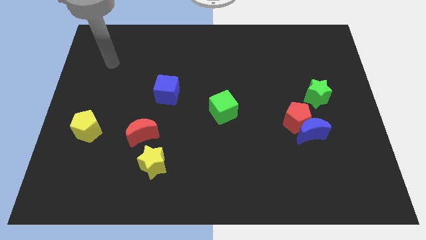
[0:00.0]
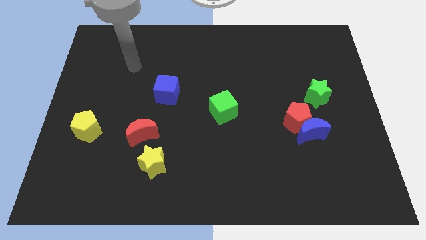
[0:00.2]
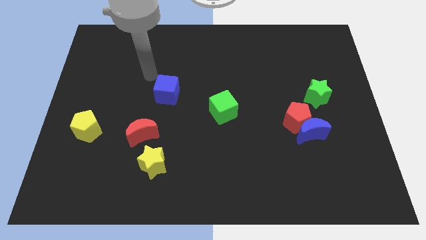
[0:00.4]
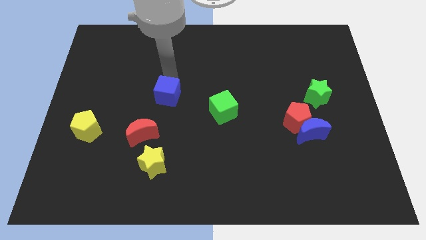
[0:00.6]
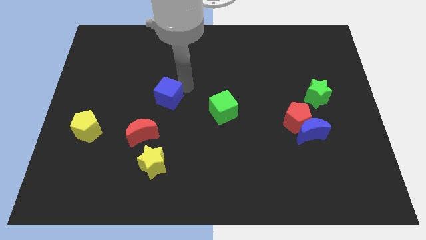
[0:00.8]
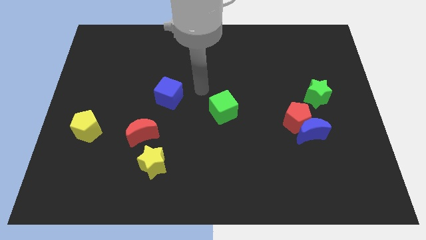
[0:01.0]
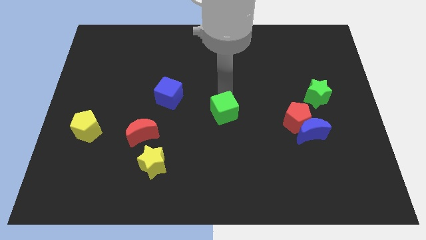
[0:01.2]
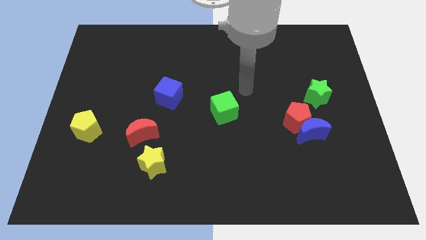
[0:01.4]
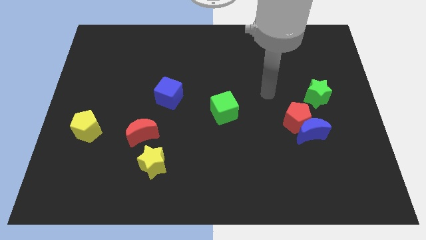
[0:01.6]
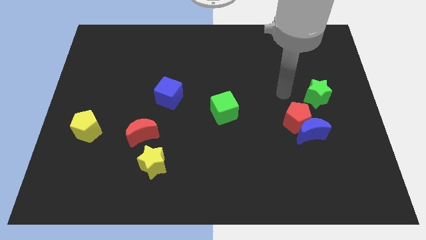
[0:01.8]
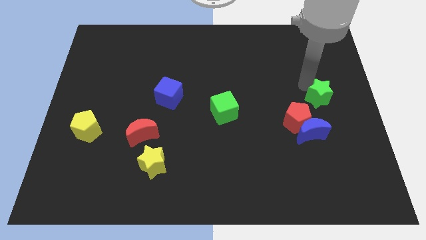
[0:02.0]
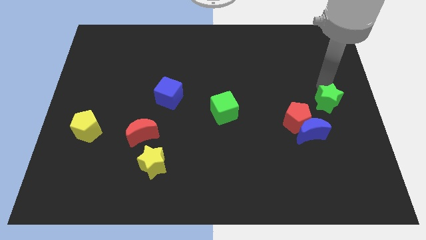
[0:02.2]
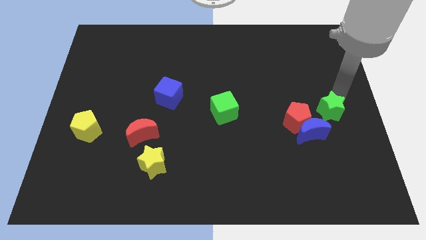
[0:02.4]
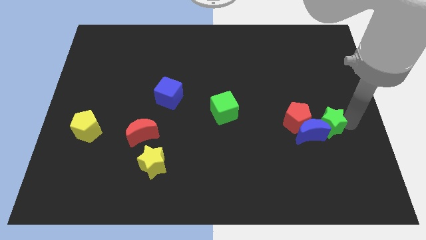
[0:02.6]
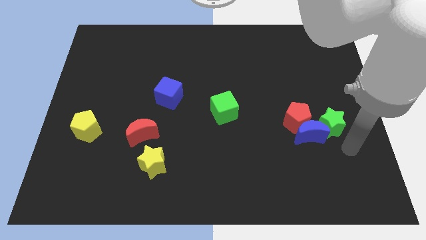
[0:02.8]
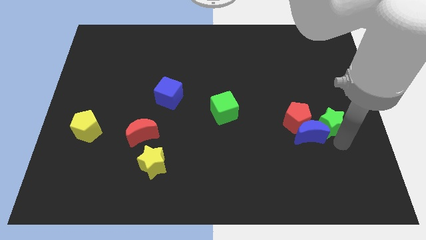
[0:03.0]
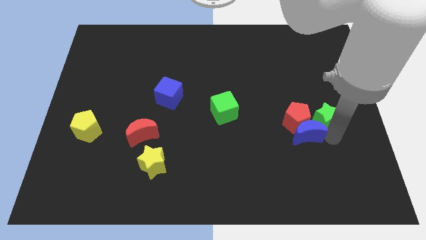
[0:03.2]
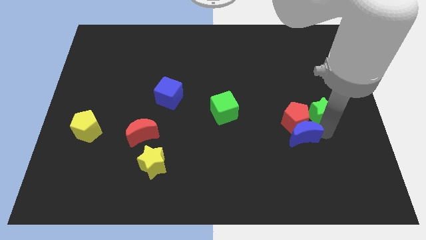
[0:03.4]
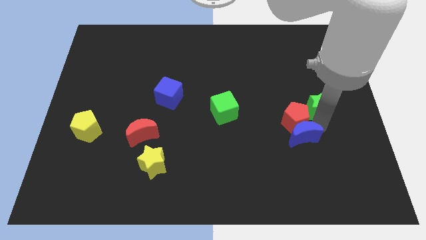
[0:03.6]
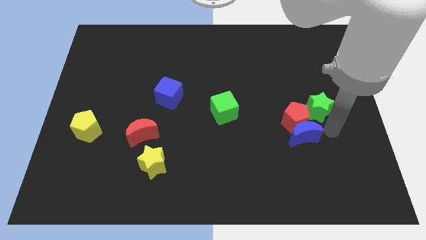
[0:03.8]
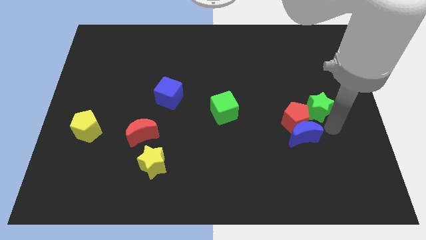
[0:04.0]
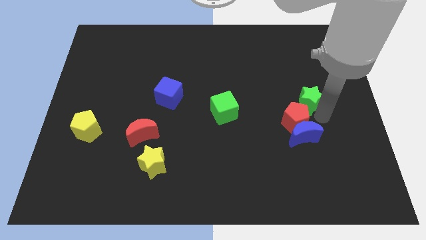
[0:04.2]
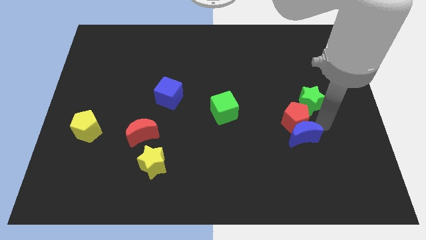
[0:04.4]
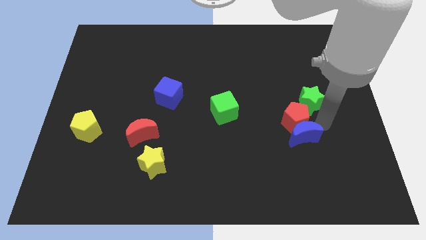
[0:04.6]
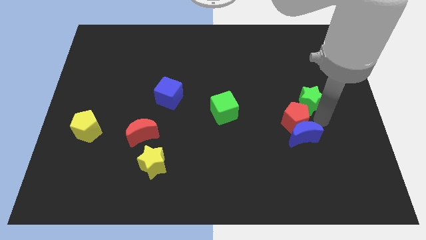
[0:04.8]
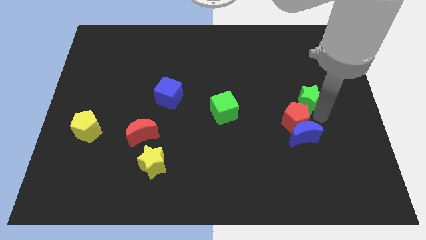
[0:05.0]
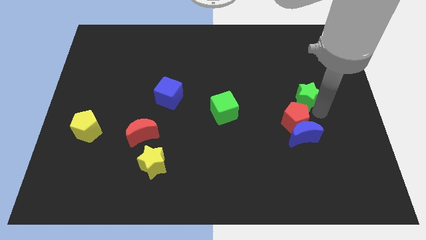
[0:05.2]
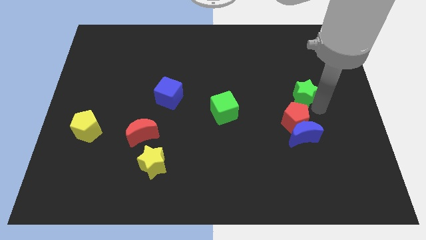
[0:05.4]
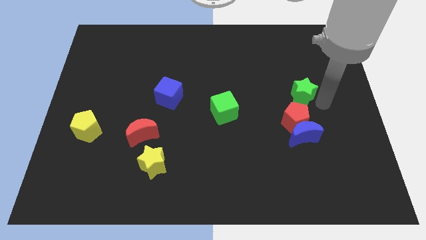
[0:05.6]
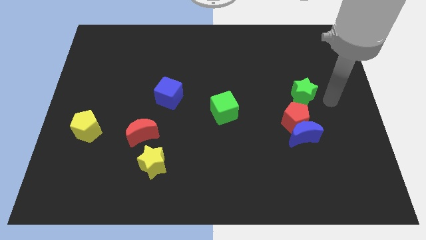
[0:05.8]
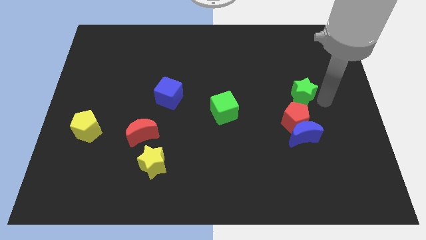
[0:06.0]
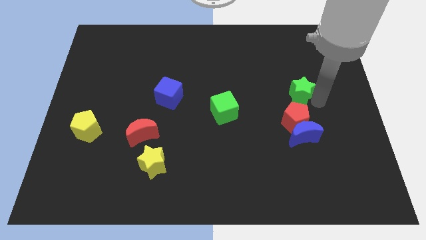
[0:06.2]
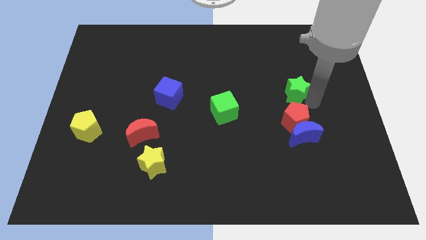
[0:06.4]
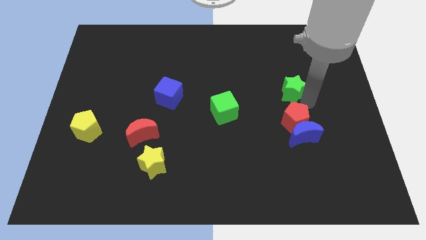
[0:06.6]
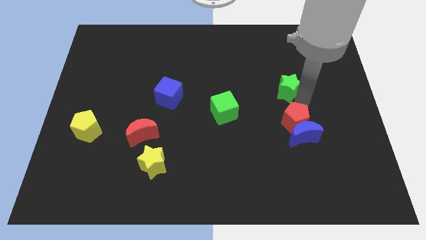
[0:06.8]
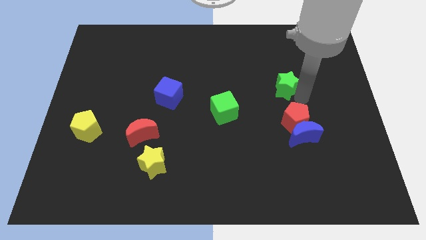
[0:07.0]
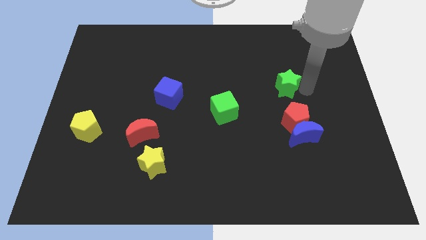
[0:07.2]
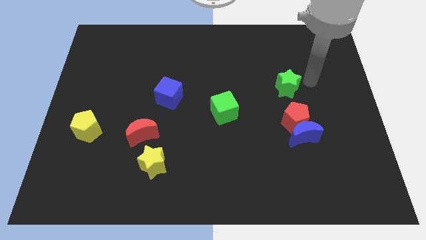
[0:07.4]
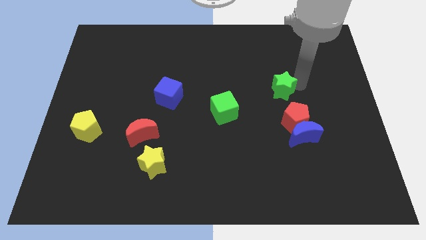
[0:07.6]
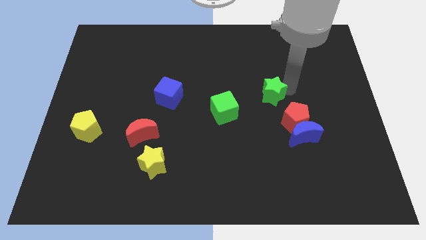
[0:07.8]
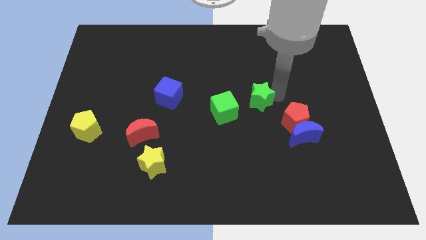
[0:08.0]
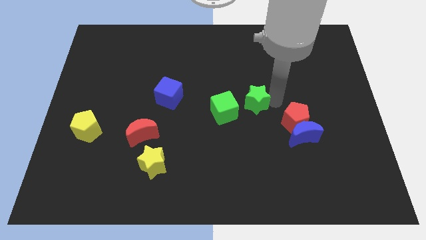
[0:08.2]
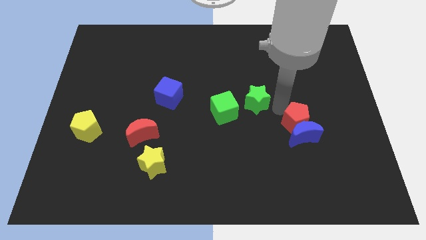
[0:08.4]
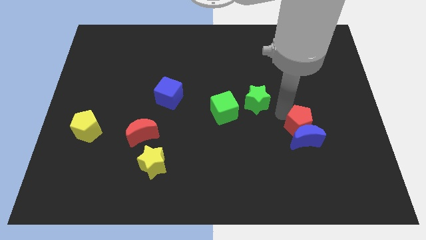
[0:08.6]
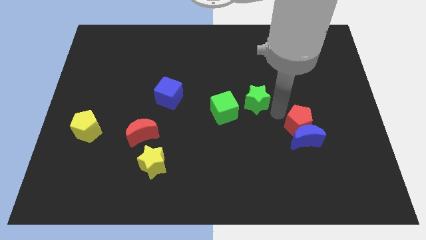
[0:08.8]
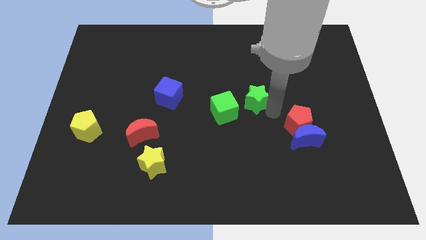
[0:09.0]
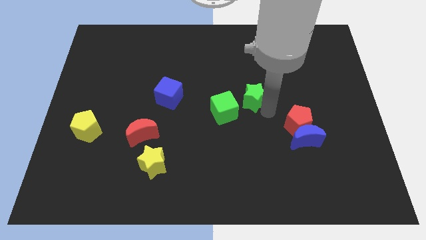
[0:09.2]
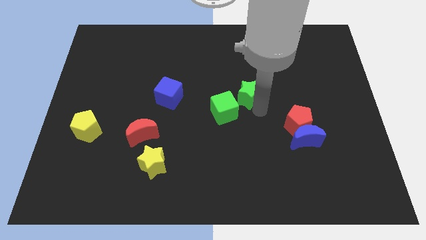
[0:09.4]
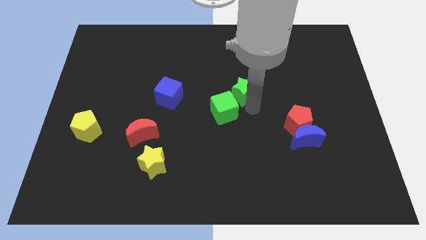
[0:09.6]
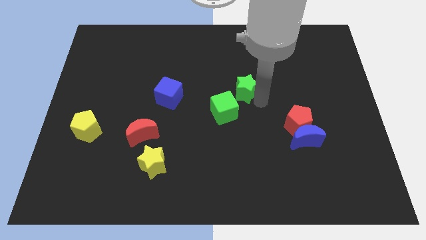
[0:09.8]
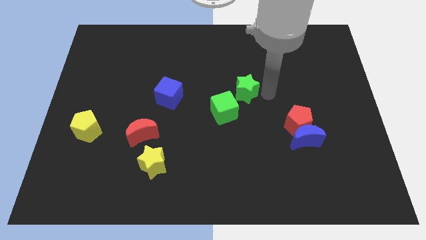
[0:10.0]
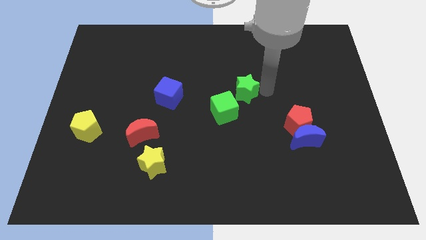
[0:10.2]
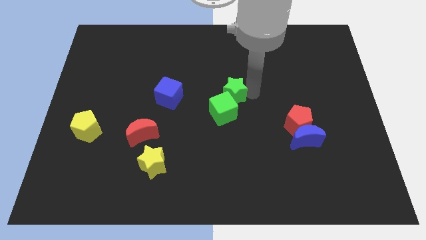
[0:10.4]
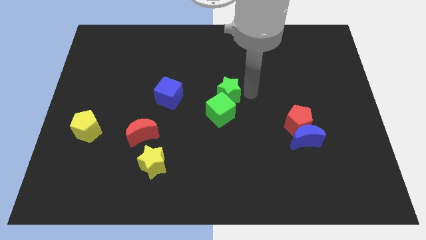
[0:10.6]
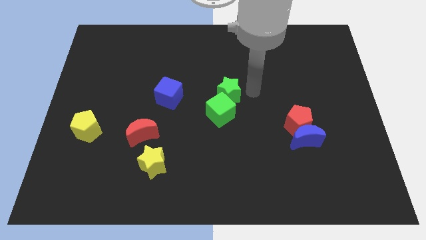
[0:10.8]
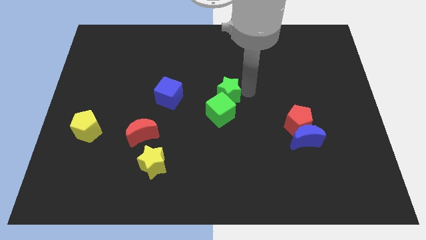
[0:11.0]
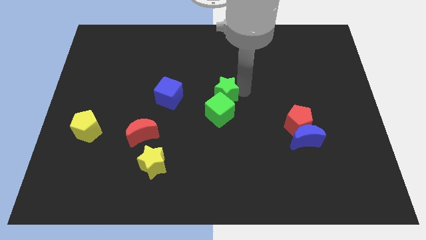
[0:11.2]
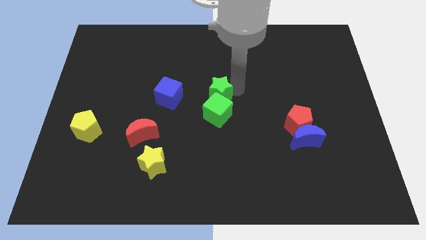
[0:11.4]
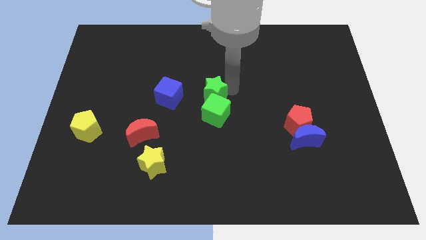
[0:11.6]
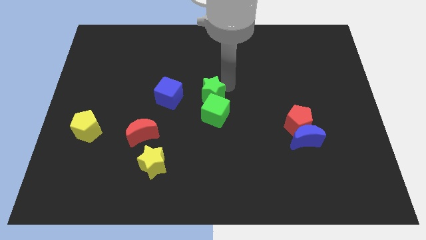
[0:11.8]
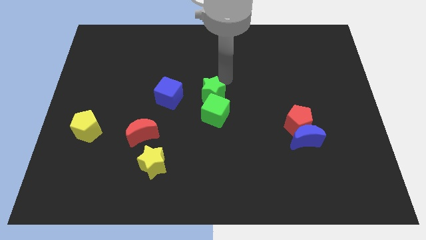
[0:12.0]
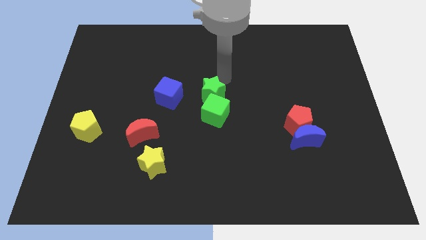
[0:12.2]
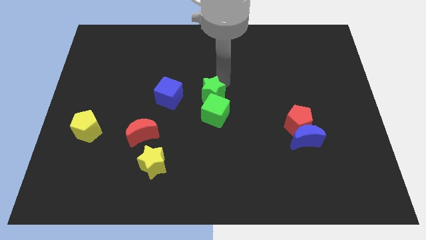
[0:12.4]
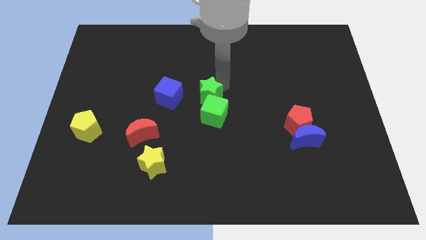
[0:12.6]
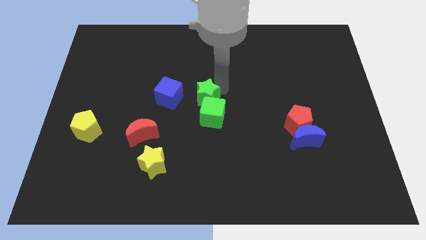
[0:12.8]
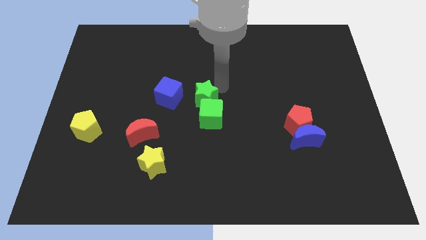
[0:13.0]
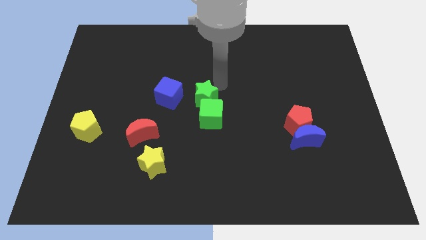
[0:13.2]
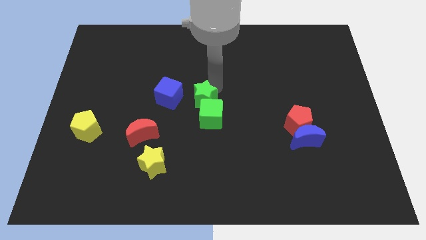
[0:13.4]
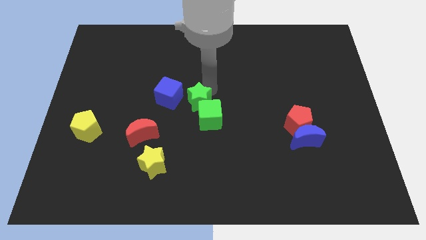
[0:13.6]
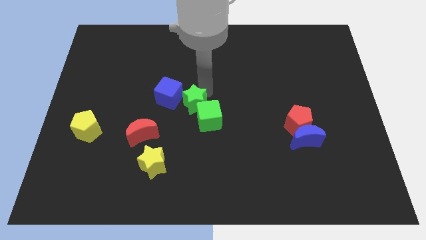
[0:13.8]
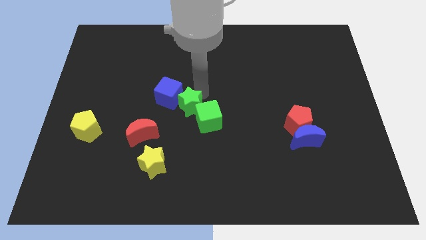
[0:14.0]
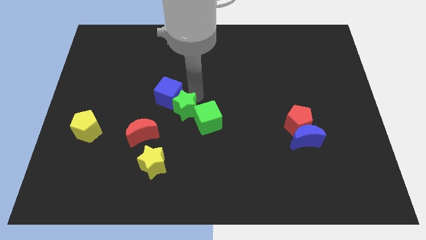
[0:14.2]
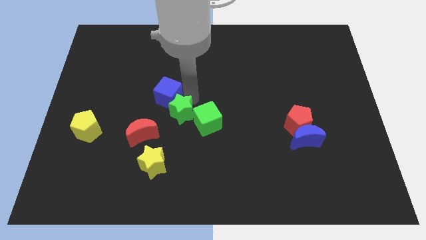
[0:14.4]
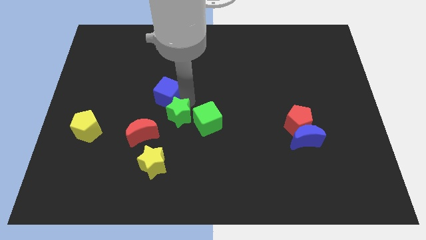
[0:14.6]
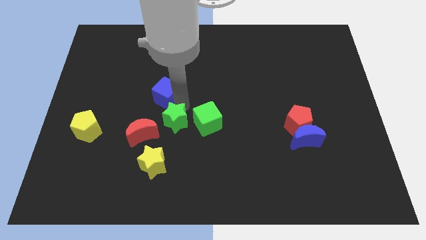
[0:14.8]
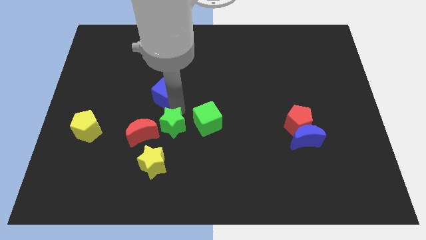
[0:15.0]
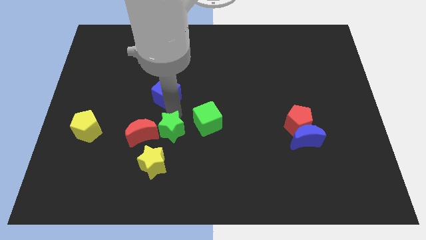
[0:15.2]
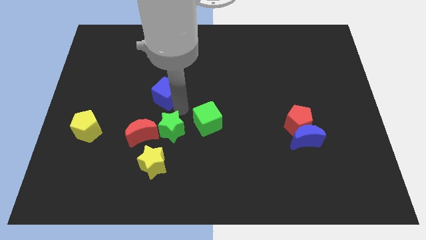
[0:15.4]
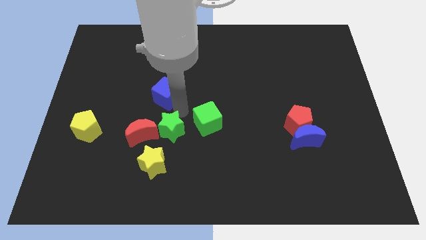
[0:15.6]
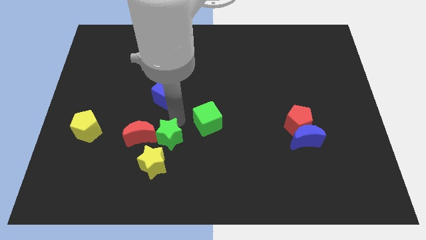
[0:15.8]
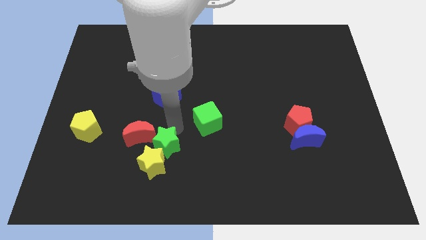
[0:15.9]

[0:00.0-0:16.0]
put the green star towards the yellow star
